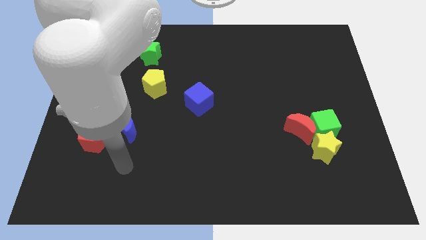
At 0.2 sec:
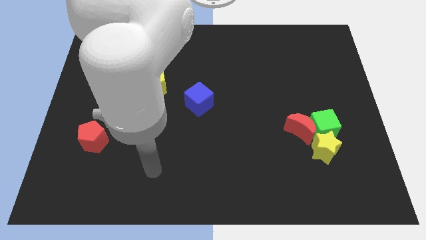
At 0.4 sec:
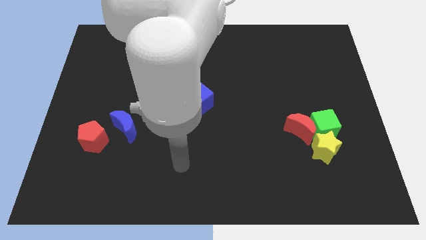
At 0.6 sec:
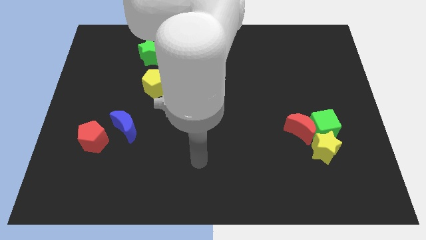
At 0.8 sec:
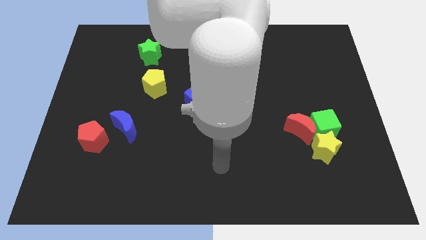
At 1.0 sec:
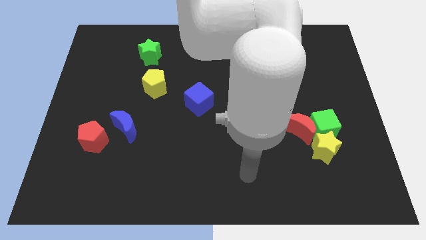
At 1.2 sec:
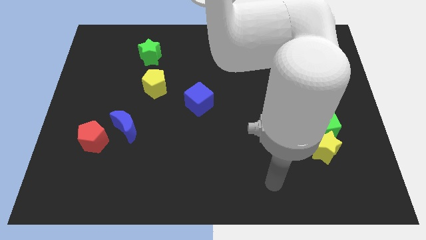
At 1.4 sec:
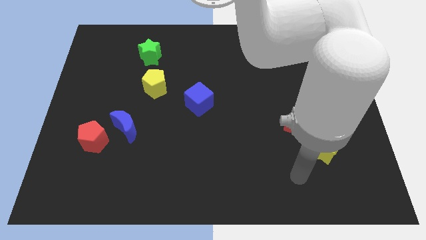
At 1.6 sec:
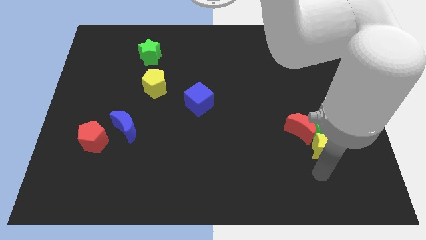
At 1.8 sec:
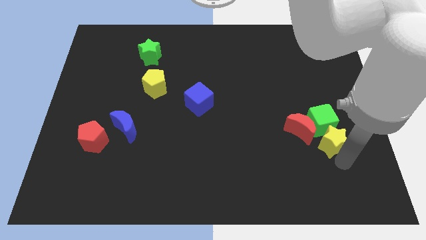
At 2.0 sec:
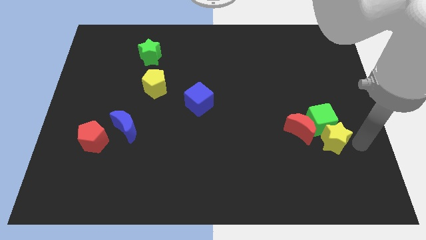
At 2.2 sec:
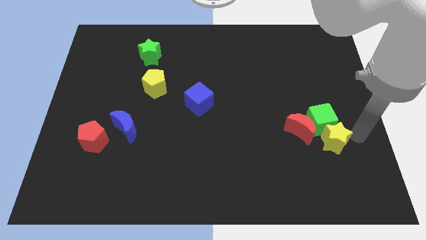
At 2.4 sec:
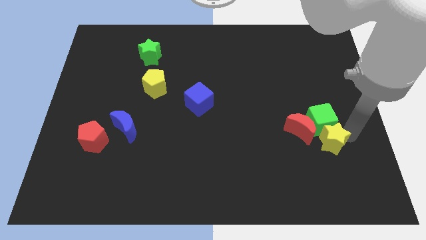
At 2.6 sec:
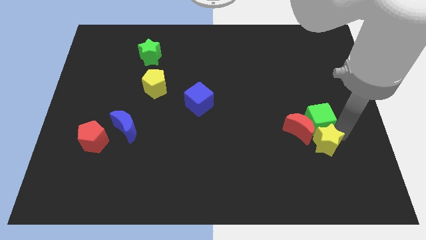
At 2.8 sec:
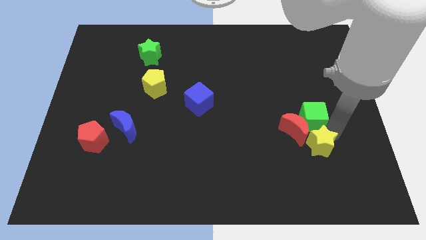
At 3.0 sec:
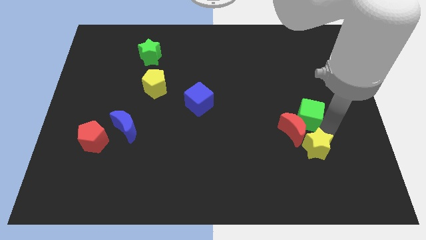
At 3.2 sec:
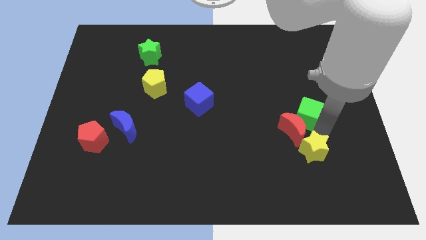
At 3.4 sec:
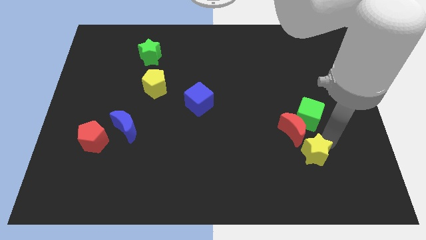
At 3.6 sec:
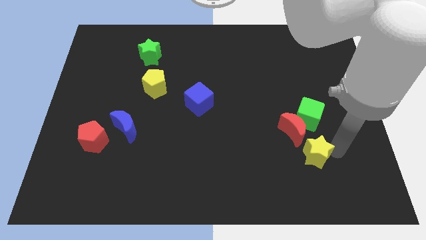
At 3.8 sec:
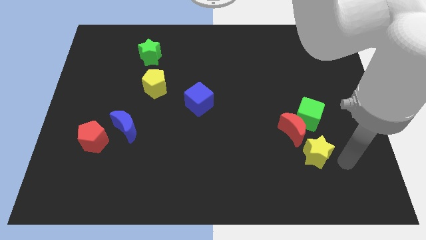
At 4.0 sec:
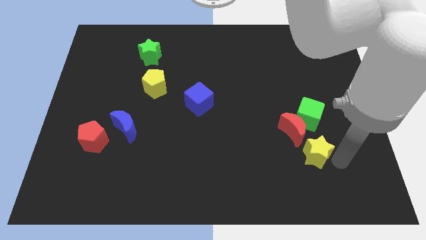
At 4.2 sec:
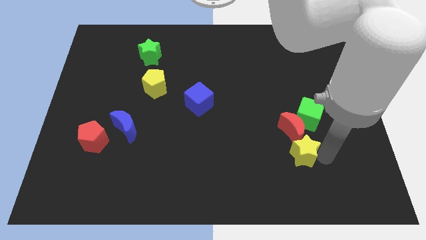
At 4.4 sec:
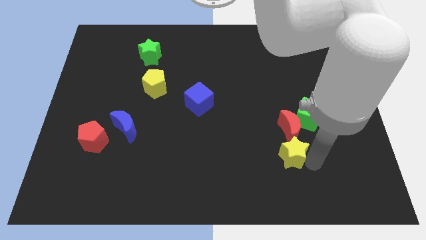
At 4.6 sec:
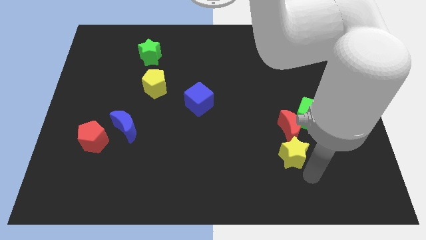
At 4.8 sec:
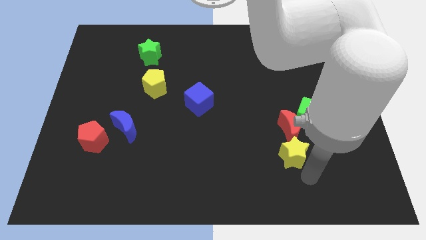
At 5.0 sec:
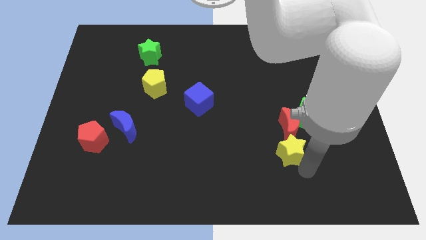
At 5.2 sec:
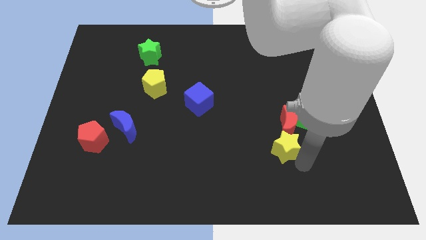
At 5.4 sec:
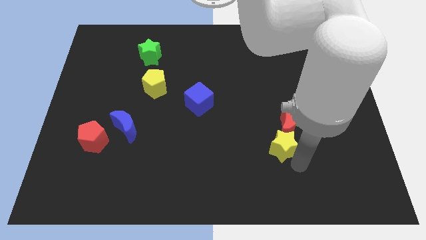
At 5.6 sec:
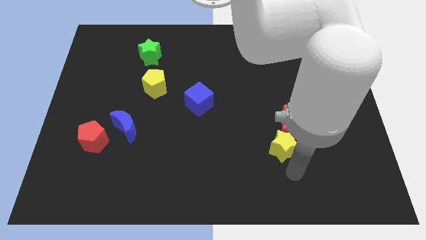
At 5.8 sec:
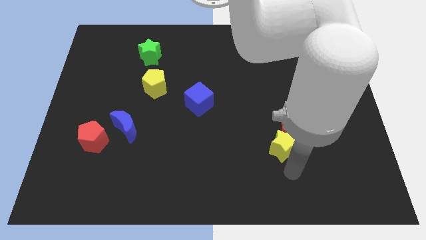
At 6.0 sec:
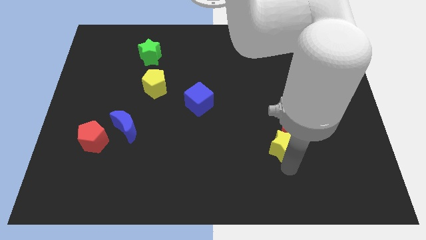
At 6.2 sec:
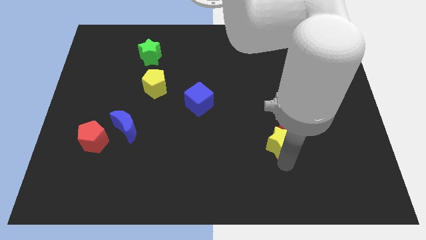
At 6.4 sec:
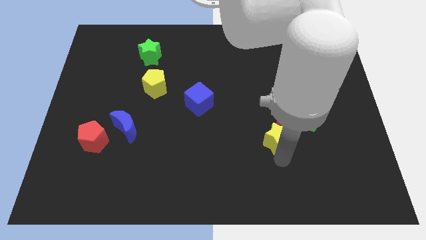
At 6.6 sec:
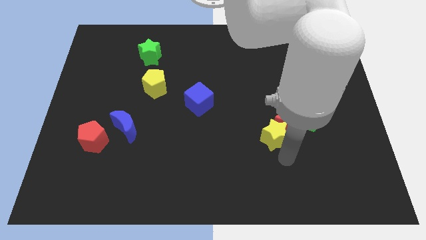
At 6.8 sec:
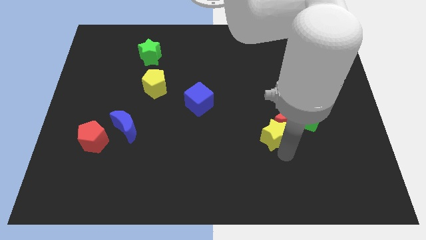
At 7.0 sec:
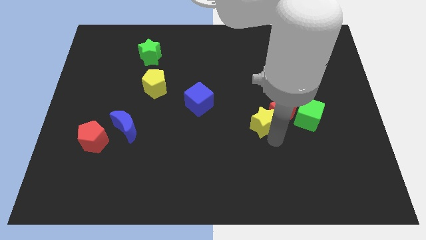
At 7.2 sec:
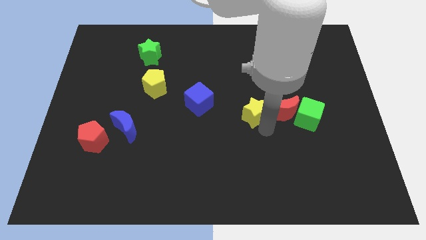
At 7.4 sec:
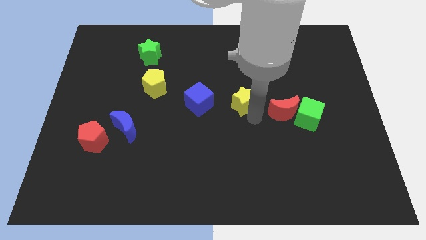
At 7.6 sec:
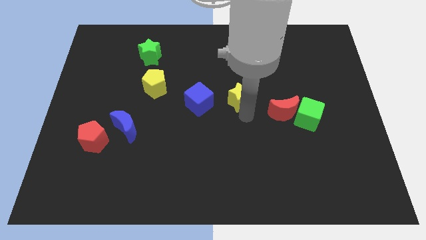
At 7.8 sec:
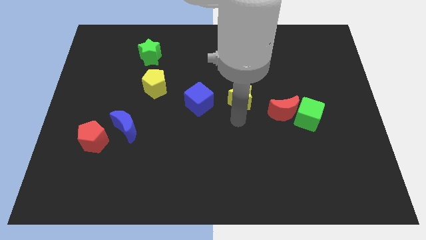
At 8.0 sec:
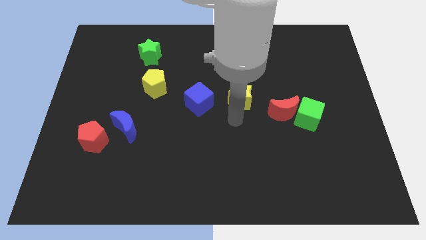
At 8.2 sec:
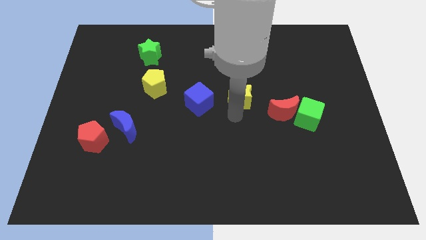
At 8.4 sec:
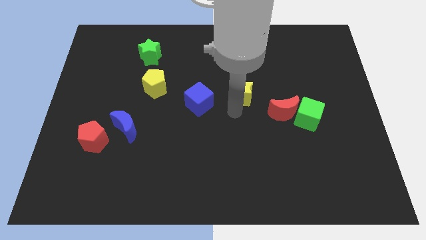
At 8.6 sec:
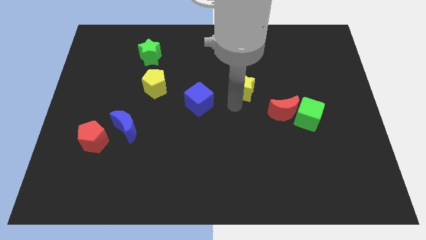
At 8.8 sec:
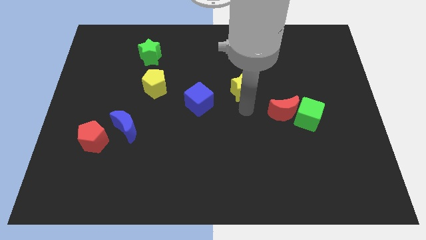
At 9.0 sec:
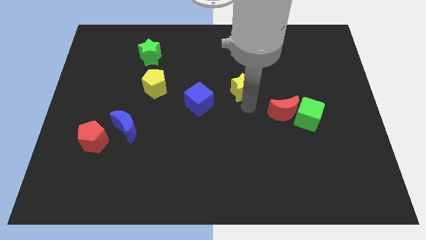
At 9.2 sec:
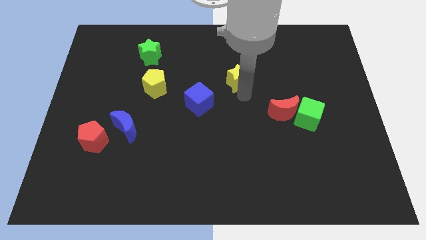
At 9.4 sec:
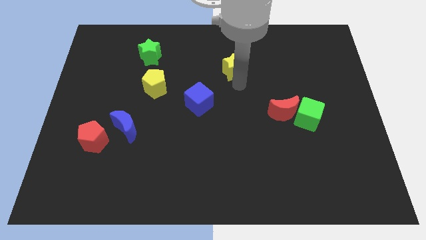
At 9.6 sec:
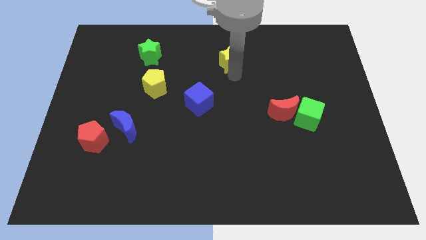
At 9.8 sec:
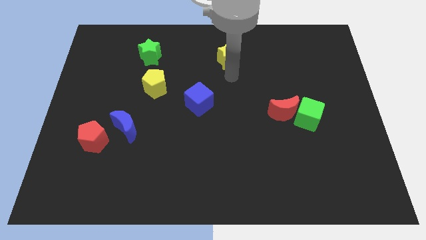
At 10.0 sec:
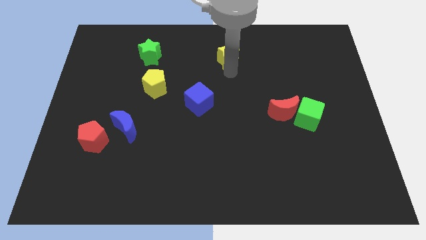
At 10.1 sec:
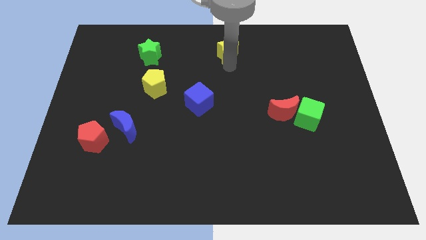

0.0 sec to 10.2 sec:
move the yellow star to the top

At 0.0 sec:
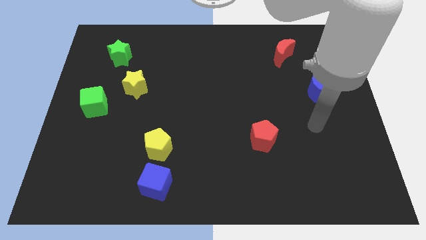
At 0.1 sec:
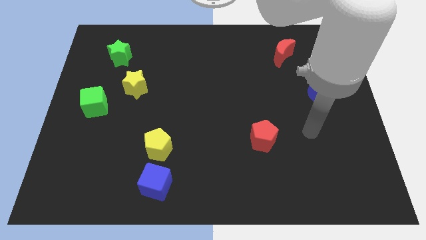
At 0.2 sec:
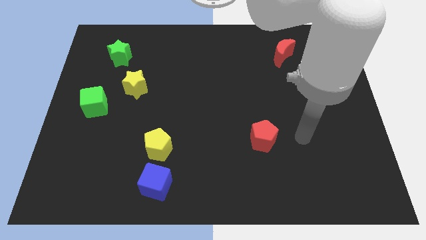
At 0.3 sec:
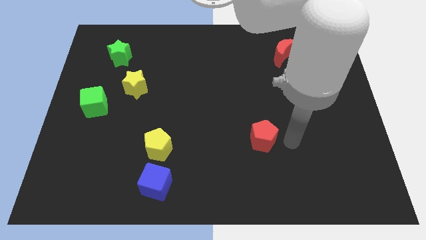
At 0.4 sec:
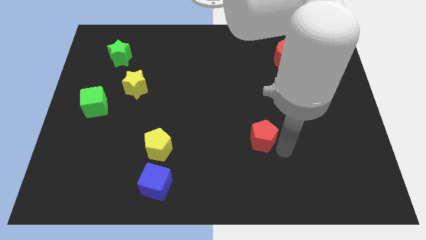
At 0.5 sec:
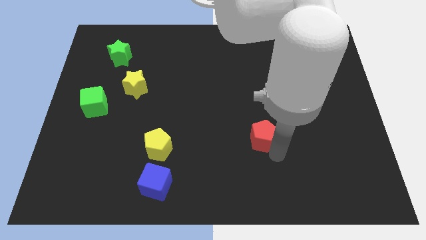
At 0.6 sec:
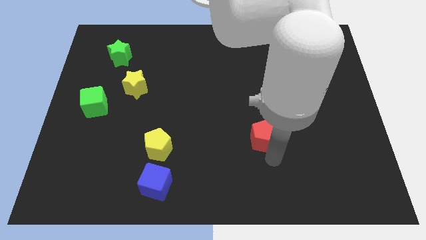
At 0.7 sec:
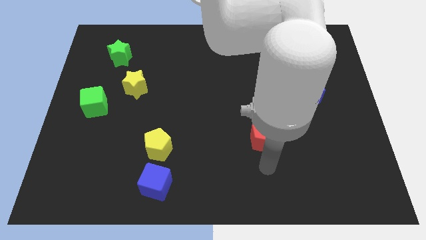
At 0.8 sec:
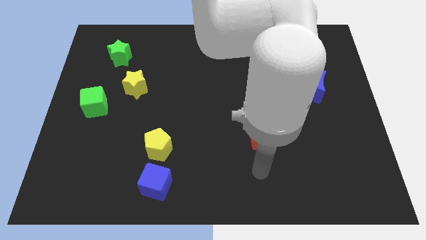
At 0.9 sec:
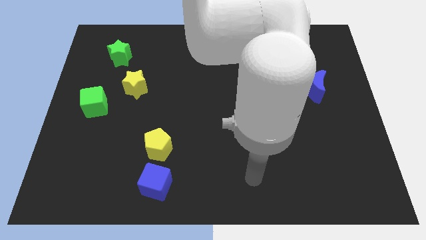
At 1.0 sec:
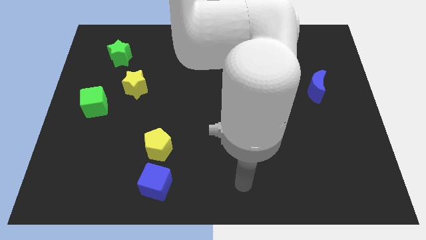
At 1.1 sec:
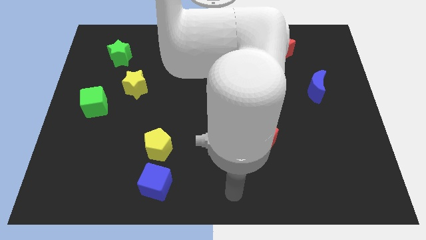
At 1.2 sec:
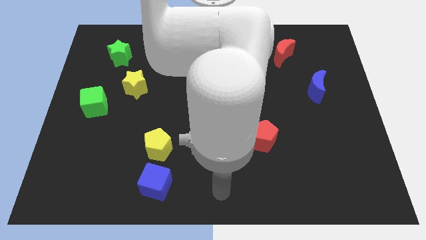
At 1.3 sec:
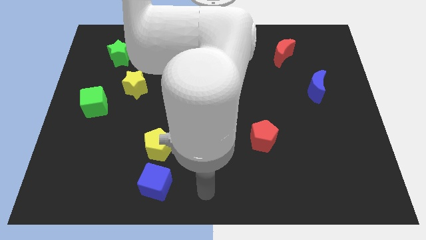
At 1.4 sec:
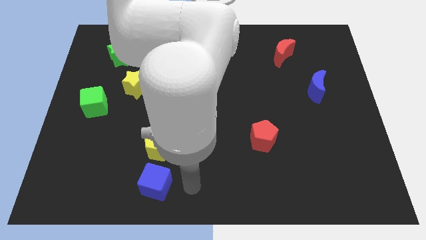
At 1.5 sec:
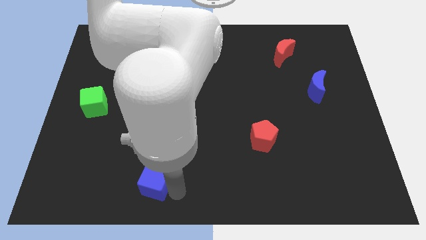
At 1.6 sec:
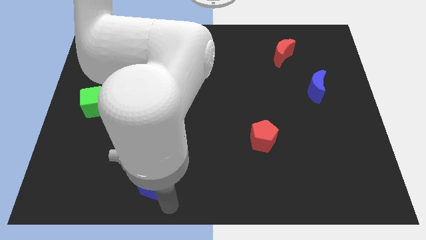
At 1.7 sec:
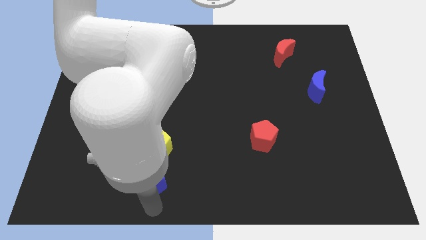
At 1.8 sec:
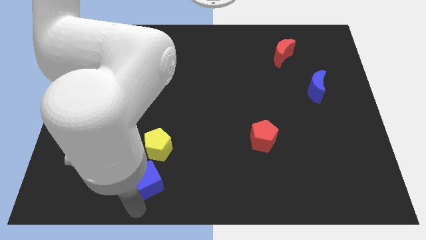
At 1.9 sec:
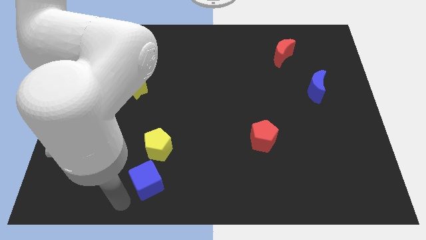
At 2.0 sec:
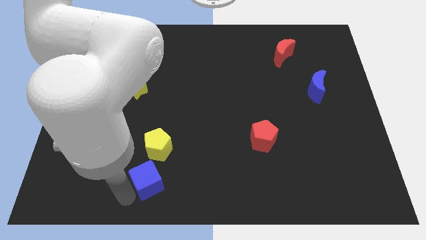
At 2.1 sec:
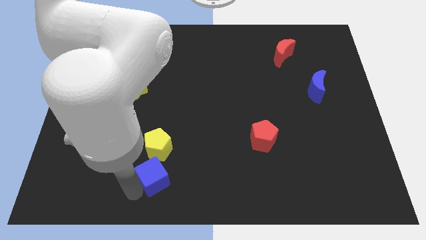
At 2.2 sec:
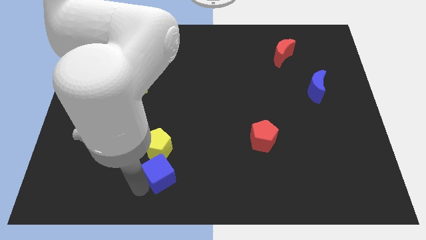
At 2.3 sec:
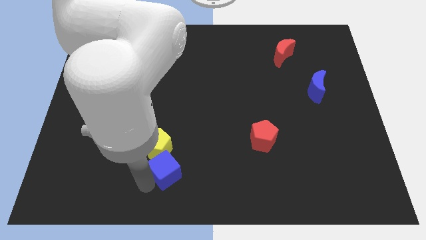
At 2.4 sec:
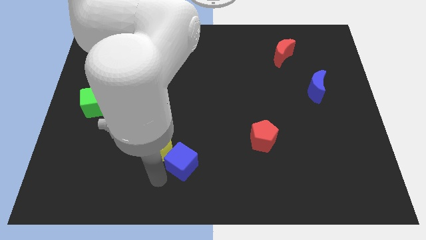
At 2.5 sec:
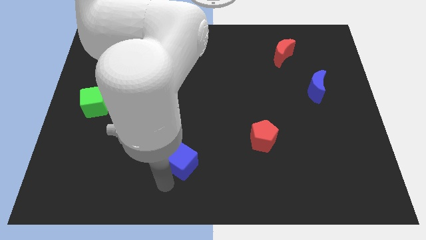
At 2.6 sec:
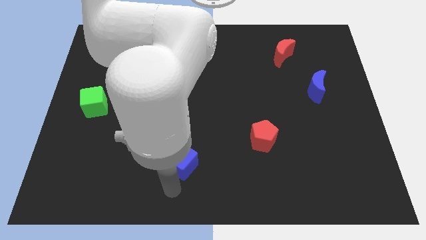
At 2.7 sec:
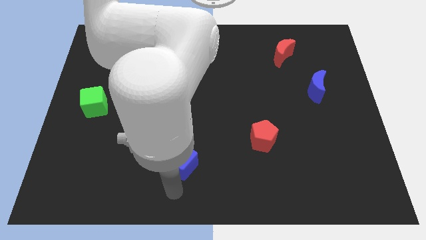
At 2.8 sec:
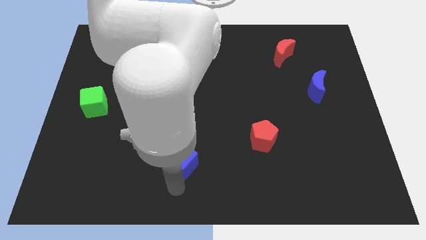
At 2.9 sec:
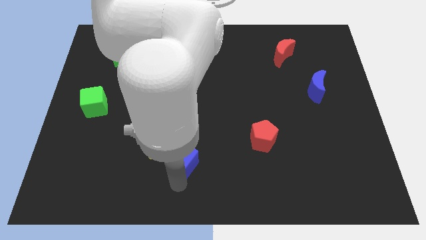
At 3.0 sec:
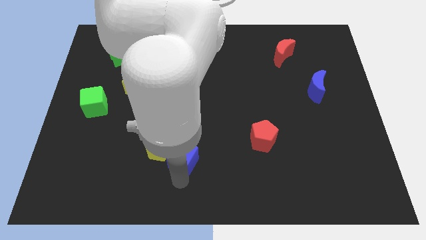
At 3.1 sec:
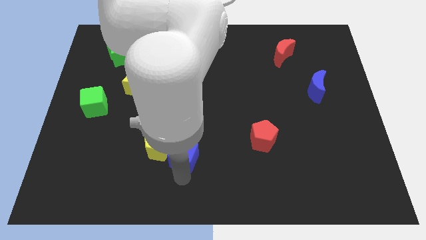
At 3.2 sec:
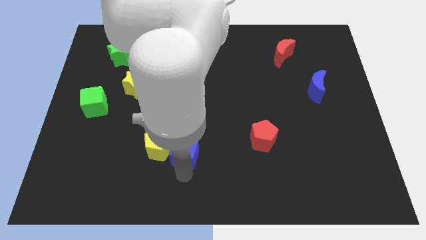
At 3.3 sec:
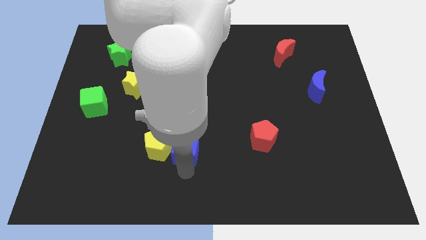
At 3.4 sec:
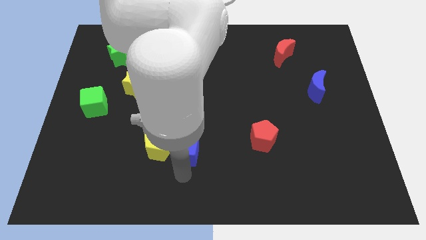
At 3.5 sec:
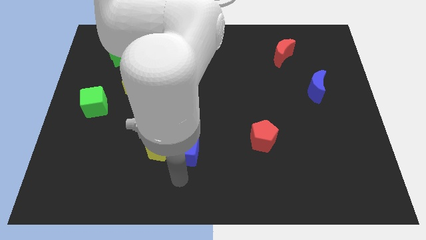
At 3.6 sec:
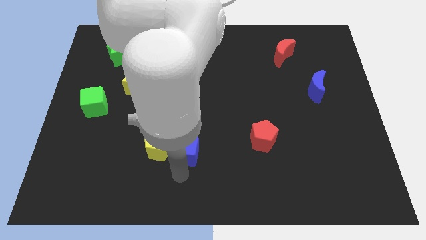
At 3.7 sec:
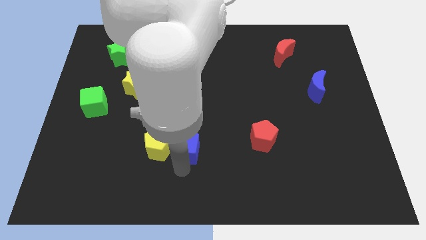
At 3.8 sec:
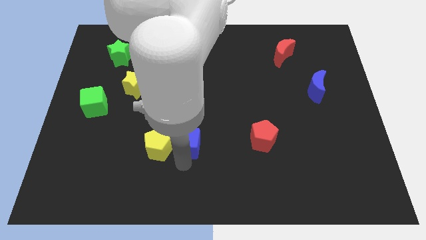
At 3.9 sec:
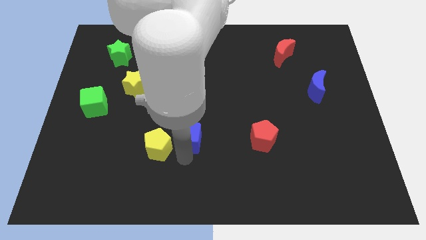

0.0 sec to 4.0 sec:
move the blue cube to the center of the board
